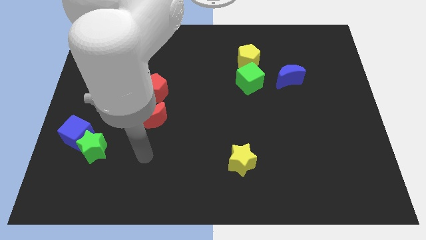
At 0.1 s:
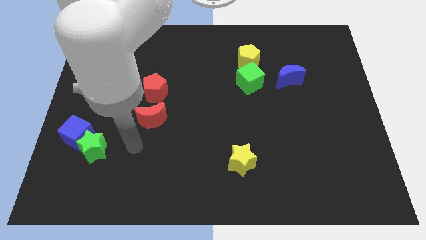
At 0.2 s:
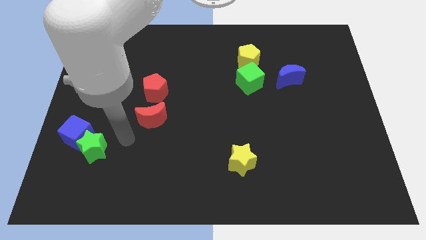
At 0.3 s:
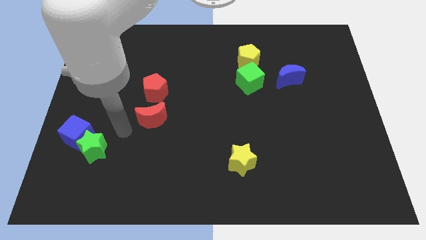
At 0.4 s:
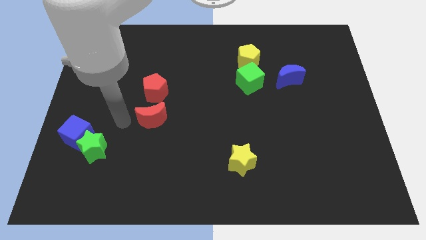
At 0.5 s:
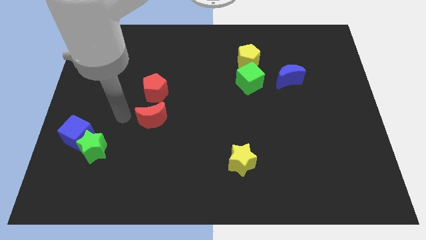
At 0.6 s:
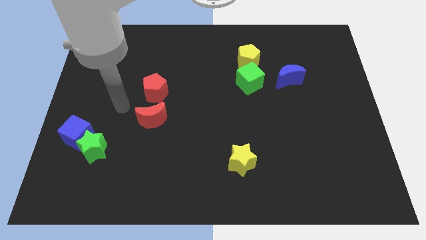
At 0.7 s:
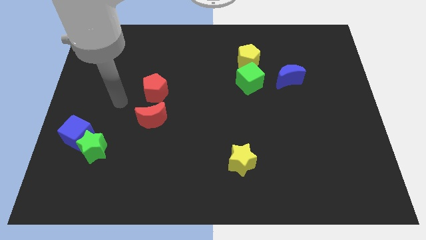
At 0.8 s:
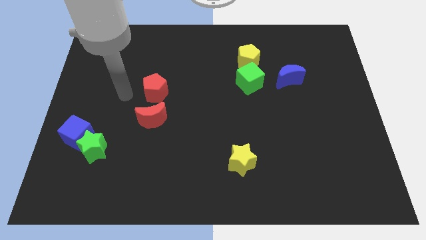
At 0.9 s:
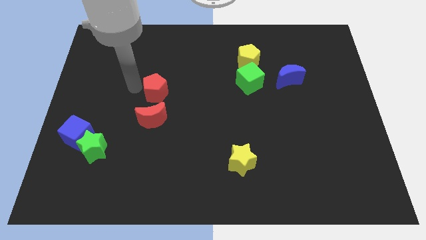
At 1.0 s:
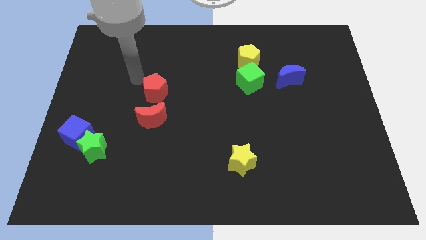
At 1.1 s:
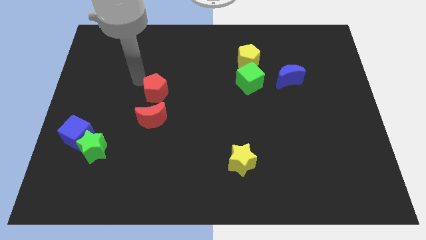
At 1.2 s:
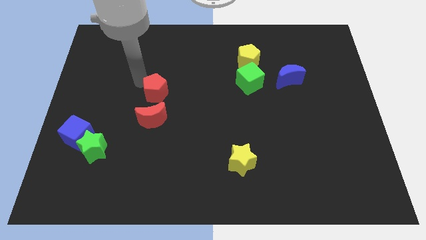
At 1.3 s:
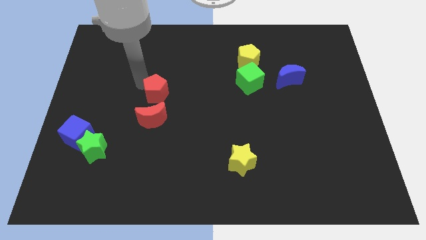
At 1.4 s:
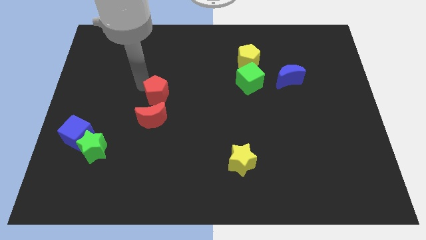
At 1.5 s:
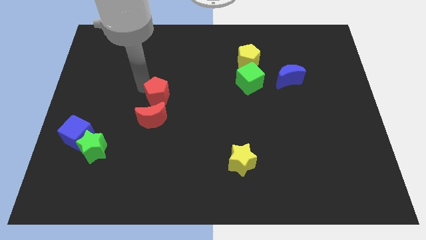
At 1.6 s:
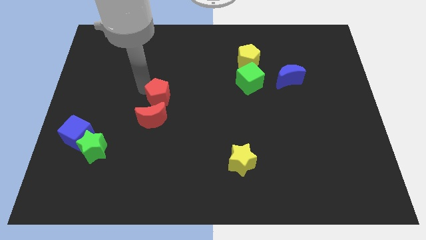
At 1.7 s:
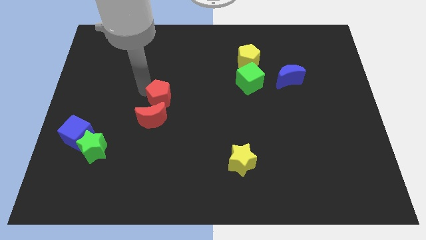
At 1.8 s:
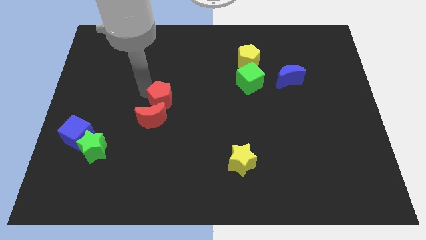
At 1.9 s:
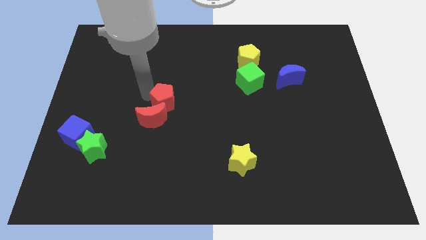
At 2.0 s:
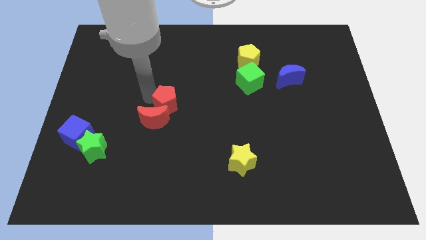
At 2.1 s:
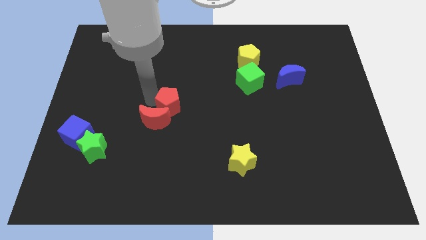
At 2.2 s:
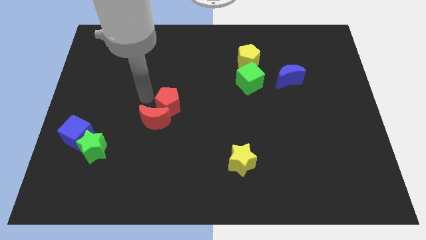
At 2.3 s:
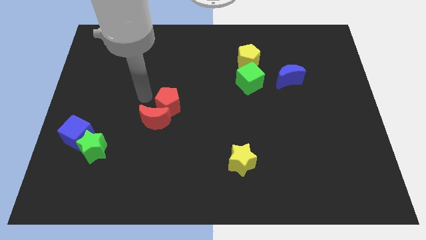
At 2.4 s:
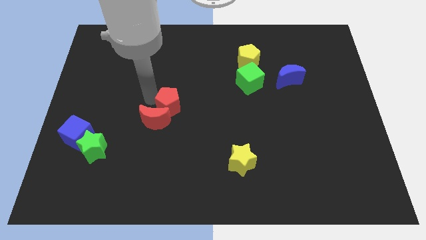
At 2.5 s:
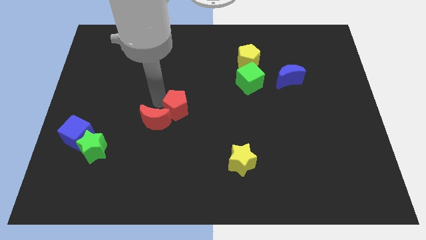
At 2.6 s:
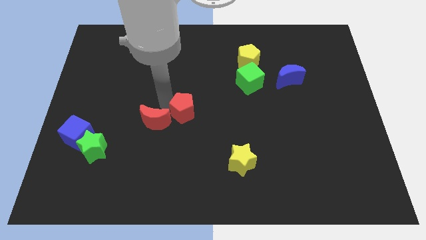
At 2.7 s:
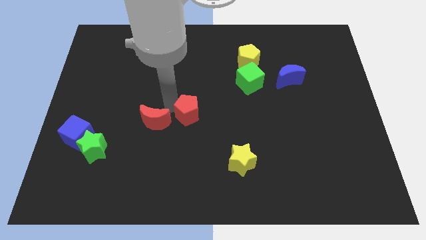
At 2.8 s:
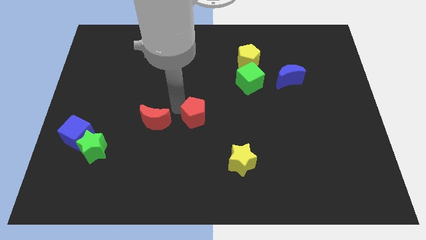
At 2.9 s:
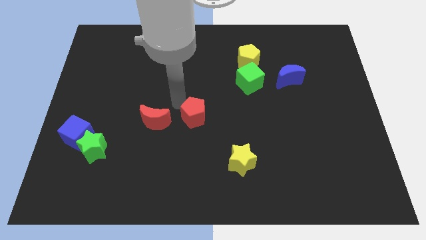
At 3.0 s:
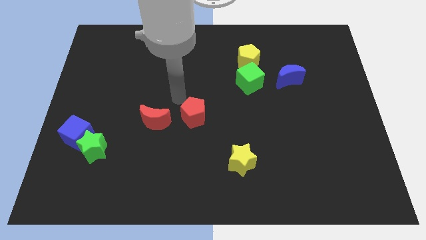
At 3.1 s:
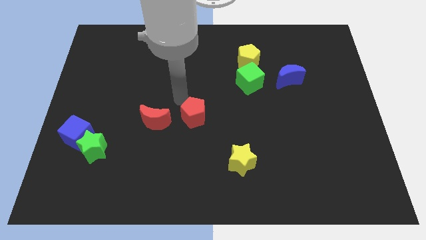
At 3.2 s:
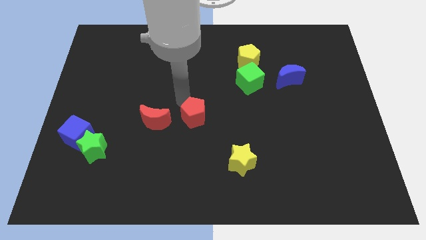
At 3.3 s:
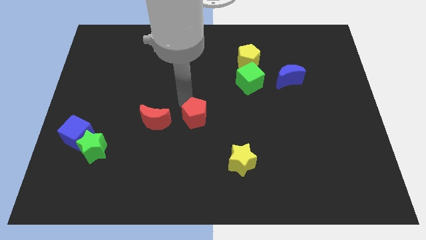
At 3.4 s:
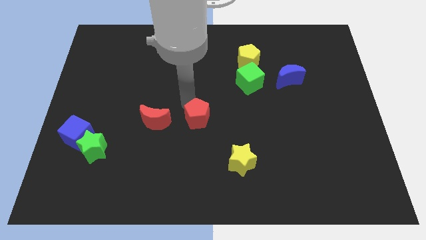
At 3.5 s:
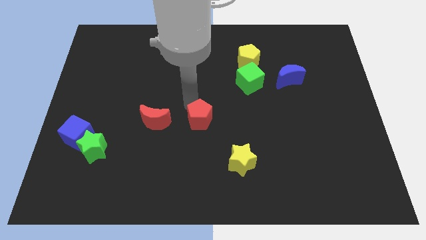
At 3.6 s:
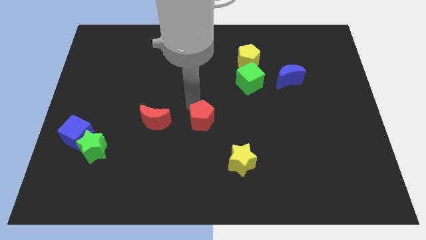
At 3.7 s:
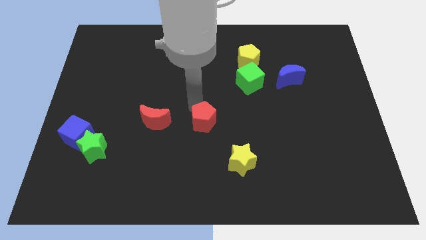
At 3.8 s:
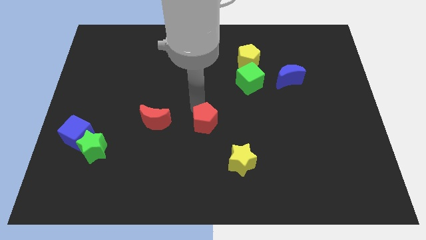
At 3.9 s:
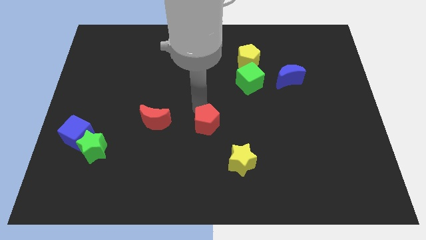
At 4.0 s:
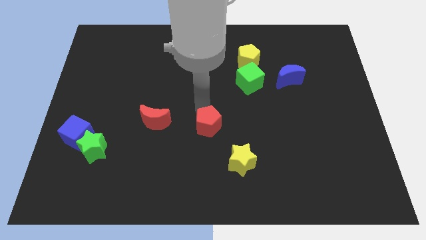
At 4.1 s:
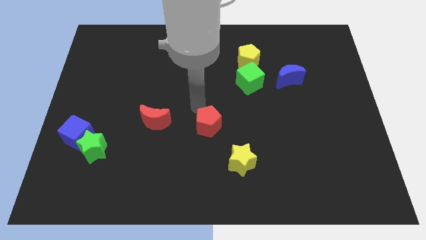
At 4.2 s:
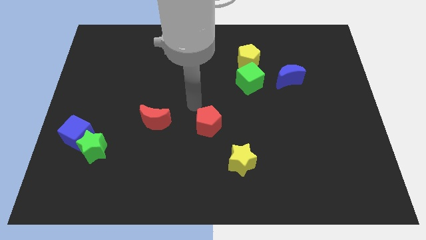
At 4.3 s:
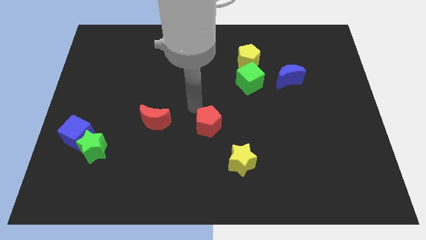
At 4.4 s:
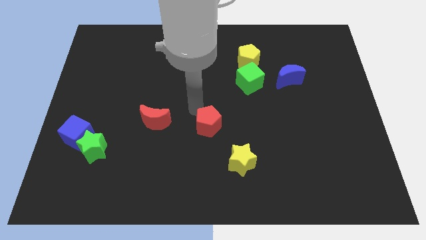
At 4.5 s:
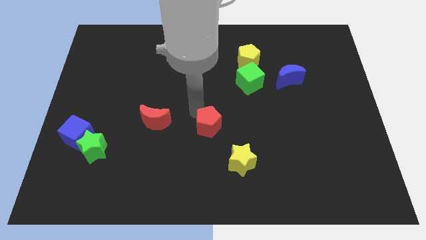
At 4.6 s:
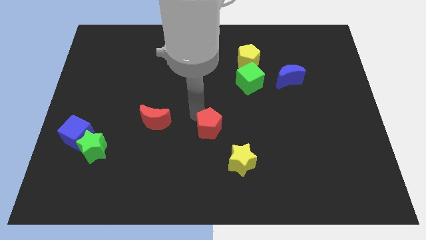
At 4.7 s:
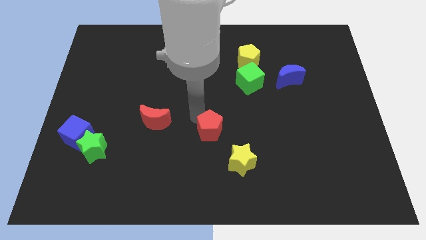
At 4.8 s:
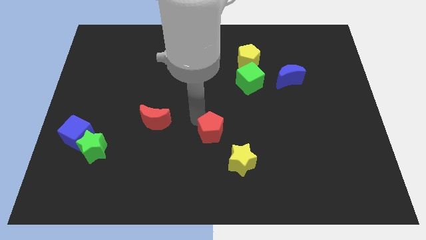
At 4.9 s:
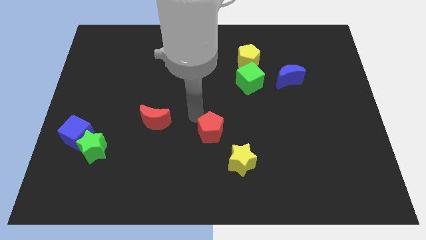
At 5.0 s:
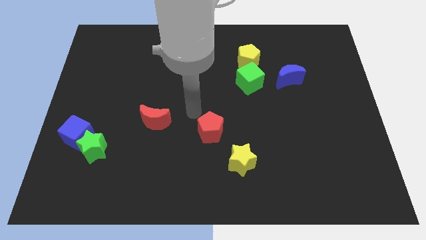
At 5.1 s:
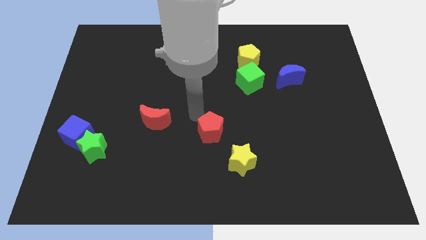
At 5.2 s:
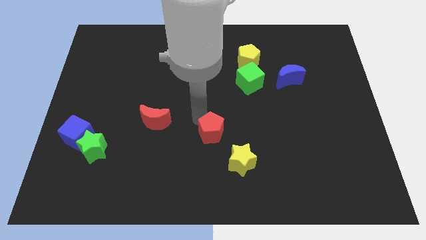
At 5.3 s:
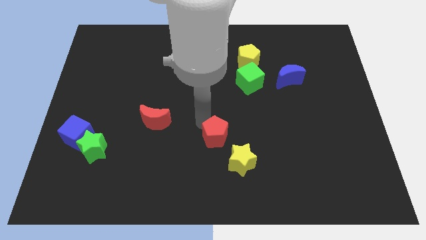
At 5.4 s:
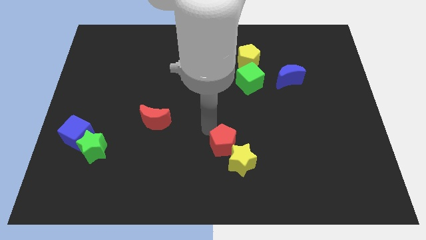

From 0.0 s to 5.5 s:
push the red pentagon towards the yellow star

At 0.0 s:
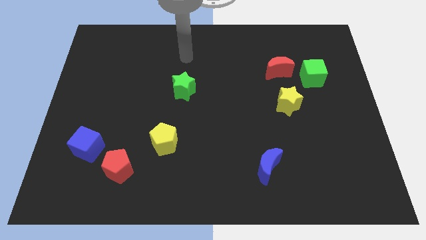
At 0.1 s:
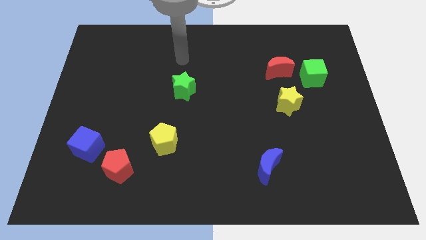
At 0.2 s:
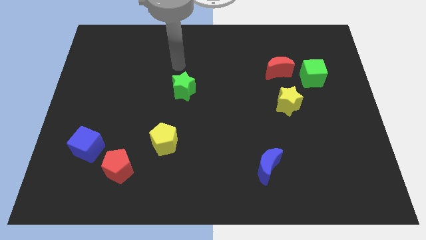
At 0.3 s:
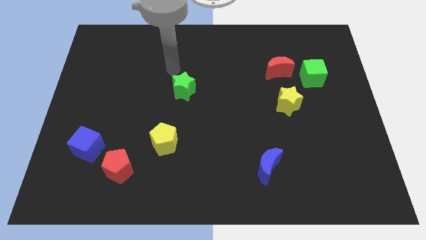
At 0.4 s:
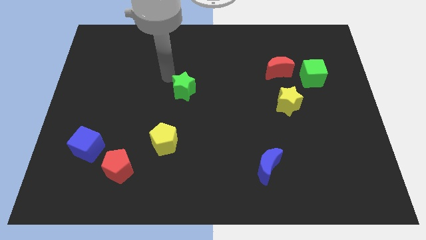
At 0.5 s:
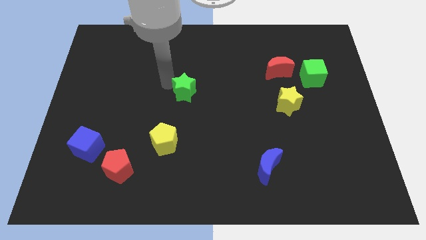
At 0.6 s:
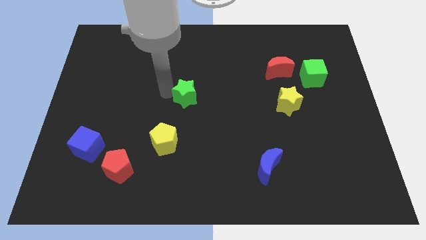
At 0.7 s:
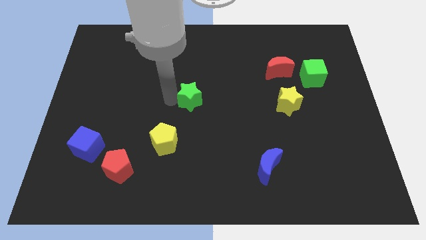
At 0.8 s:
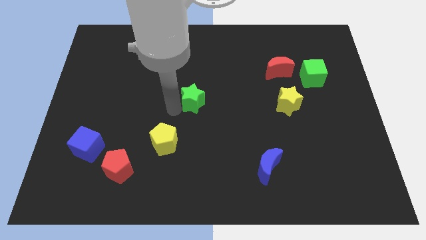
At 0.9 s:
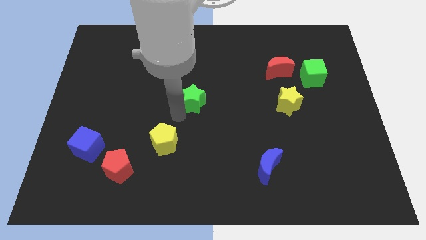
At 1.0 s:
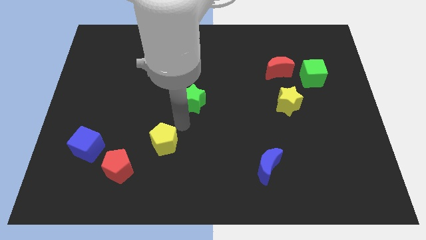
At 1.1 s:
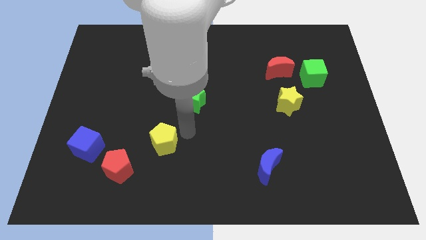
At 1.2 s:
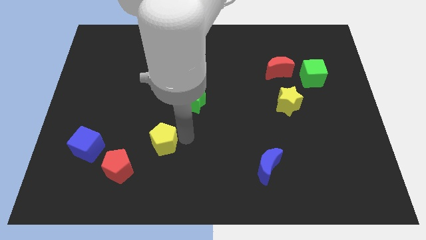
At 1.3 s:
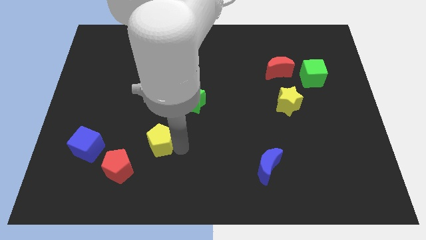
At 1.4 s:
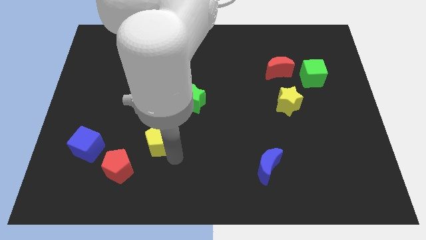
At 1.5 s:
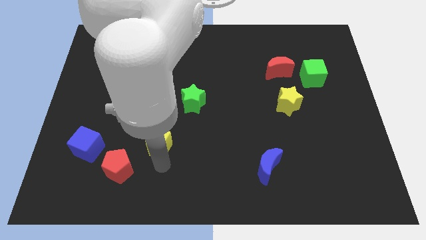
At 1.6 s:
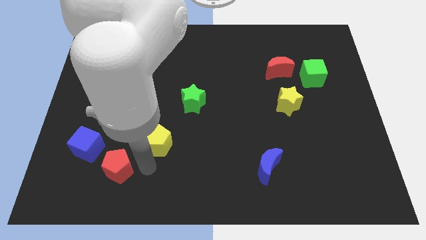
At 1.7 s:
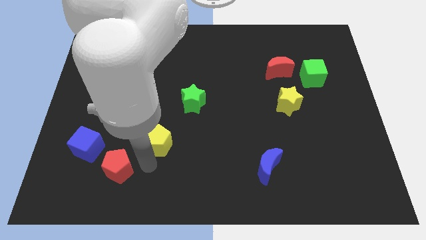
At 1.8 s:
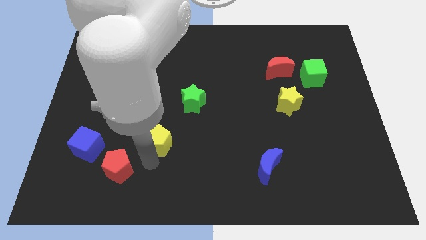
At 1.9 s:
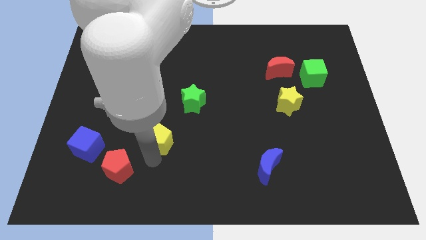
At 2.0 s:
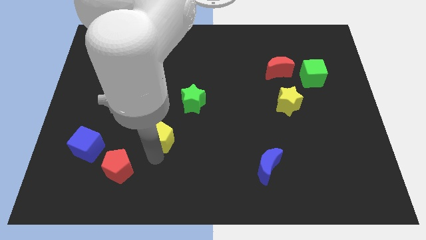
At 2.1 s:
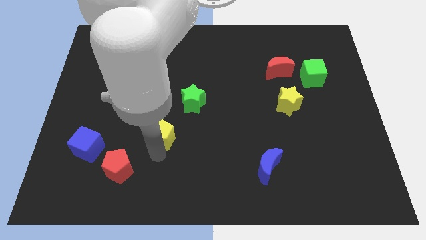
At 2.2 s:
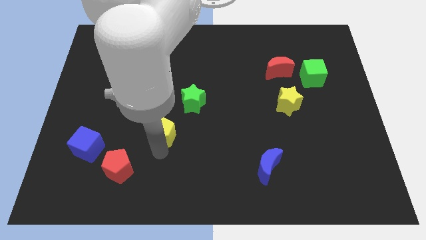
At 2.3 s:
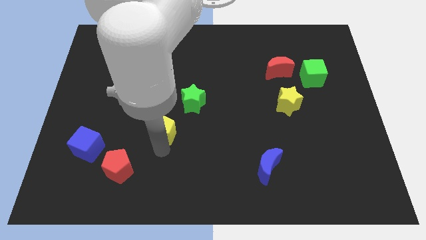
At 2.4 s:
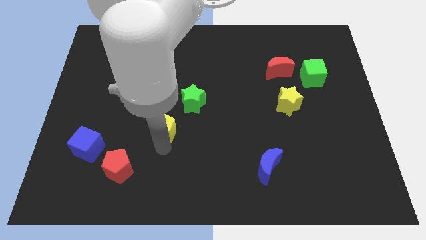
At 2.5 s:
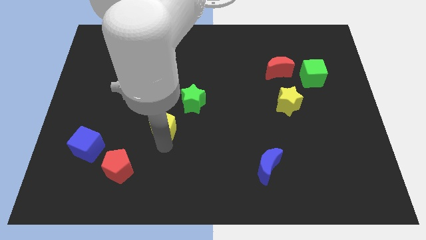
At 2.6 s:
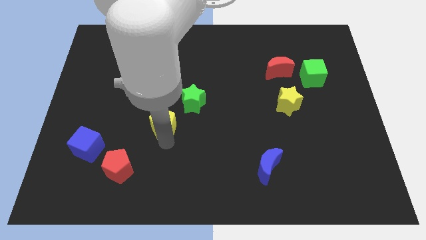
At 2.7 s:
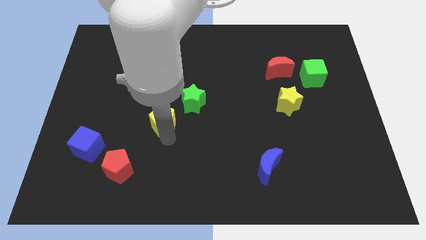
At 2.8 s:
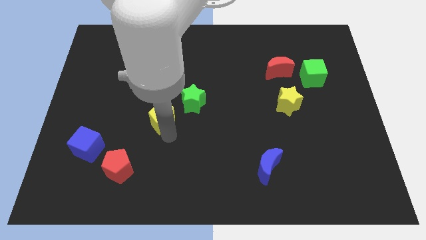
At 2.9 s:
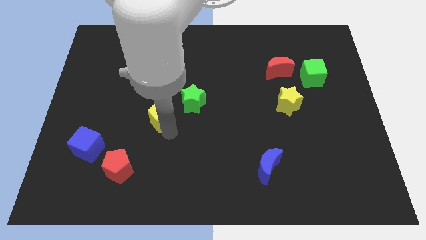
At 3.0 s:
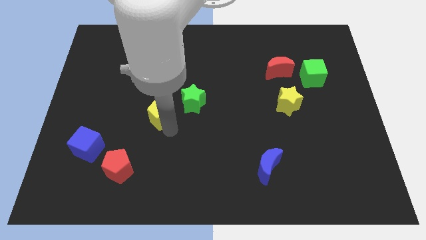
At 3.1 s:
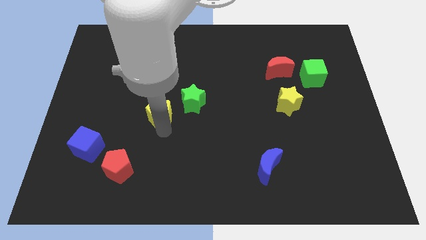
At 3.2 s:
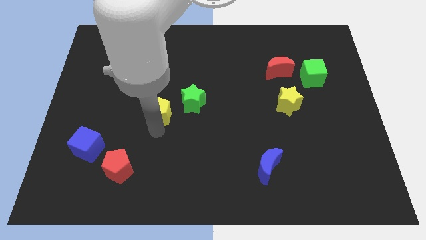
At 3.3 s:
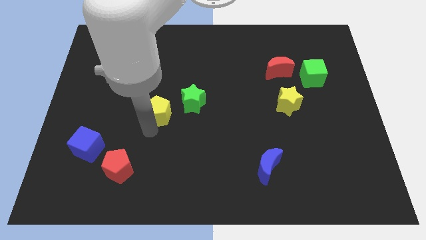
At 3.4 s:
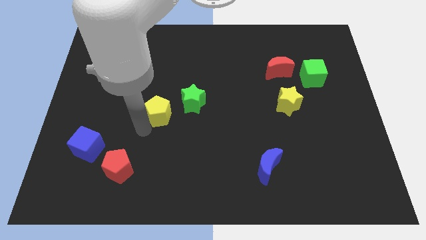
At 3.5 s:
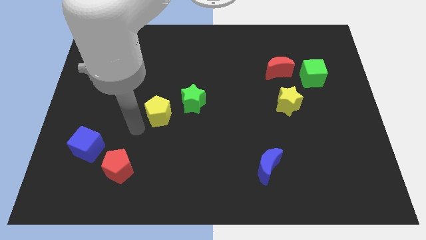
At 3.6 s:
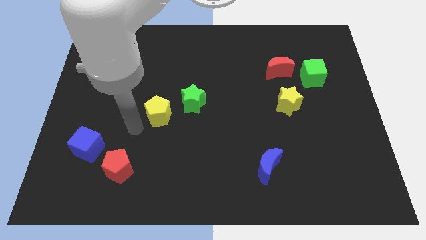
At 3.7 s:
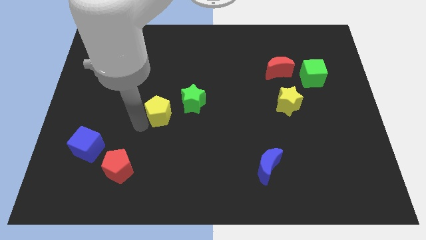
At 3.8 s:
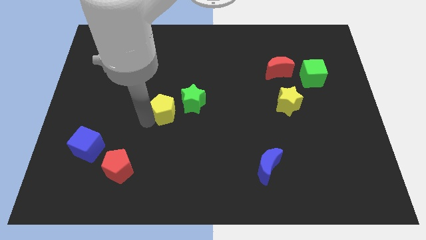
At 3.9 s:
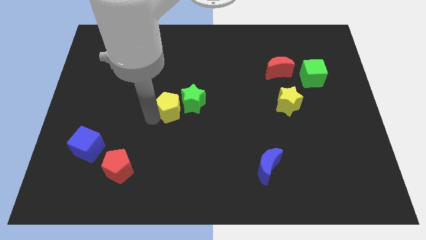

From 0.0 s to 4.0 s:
push the yellow pentagon to the green star
